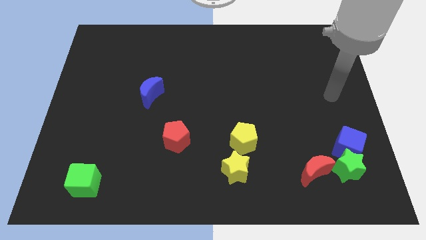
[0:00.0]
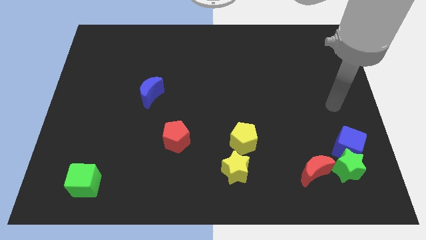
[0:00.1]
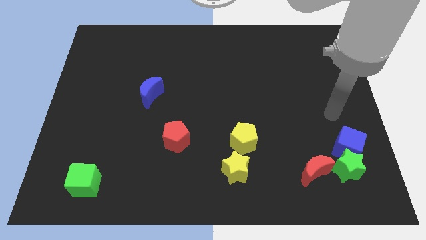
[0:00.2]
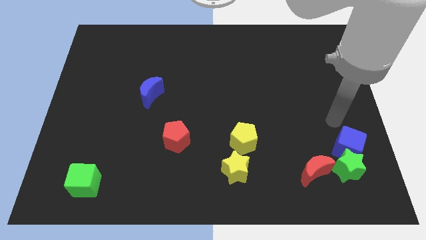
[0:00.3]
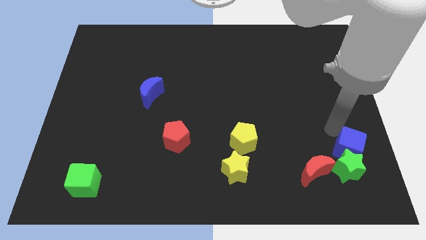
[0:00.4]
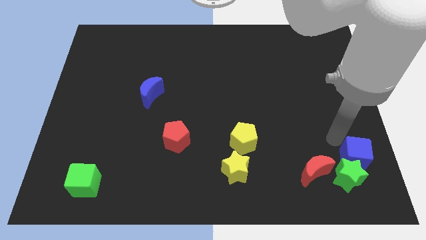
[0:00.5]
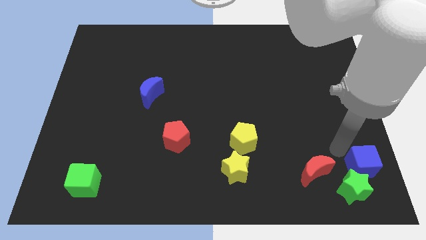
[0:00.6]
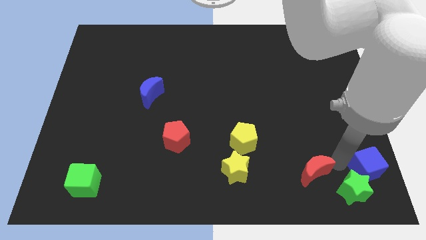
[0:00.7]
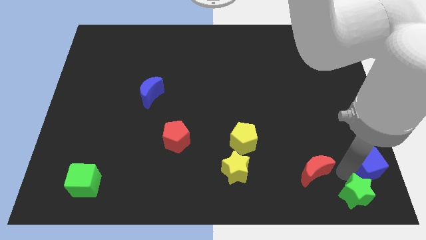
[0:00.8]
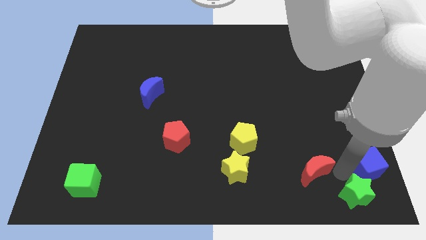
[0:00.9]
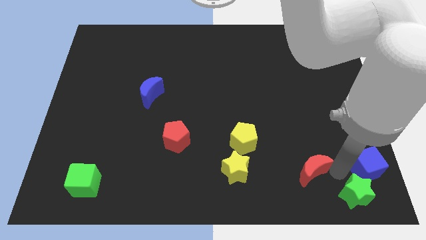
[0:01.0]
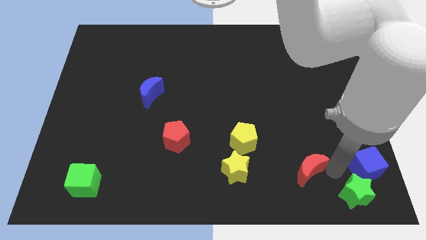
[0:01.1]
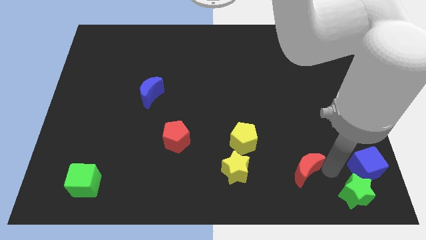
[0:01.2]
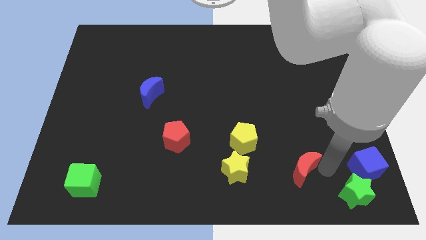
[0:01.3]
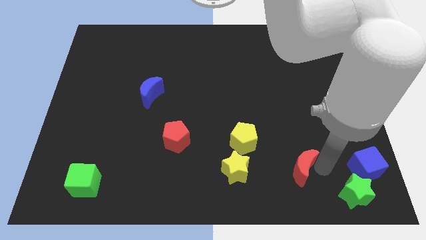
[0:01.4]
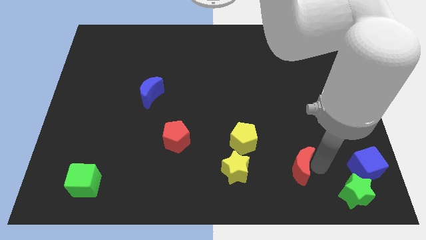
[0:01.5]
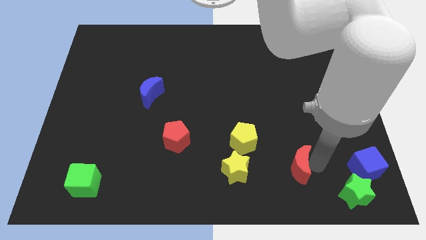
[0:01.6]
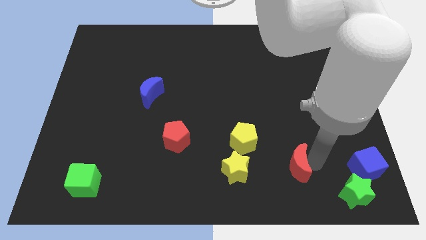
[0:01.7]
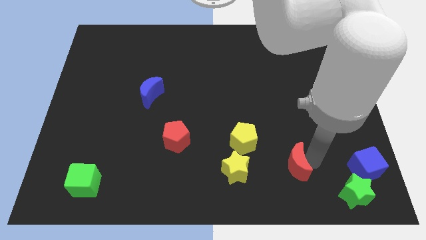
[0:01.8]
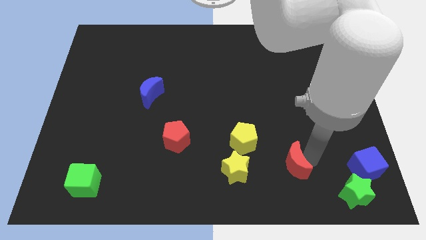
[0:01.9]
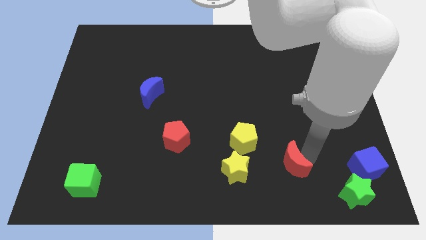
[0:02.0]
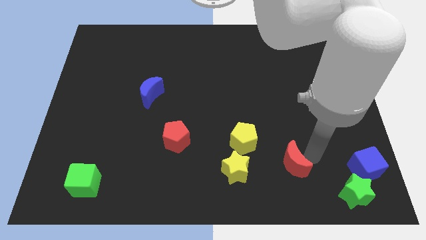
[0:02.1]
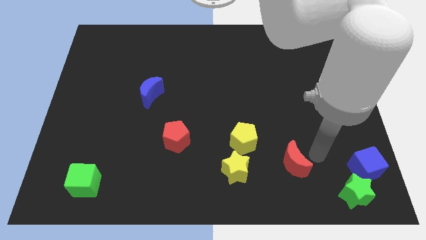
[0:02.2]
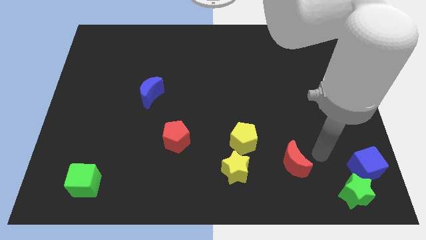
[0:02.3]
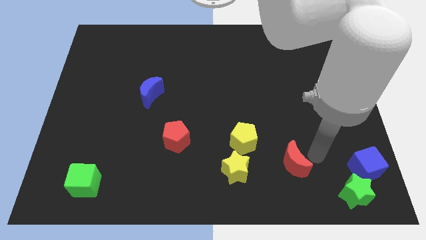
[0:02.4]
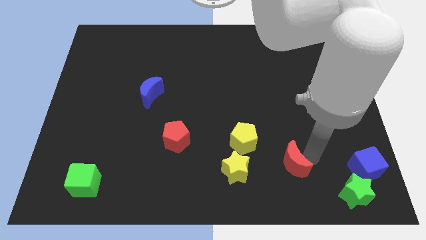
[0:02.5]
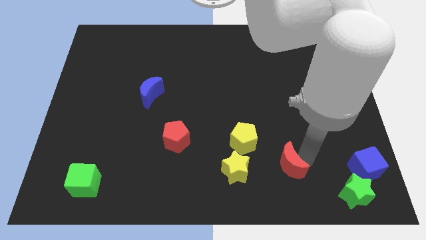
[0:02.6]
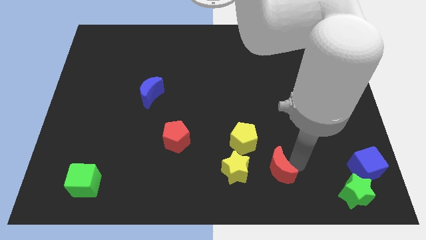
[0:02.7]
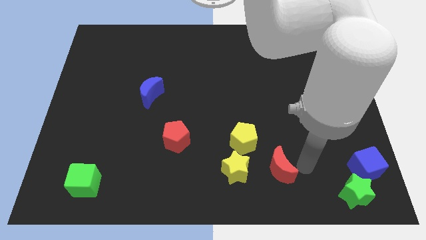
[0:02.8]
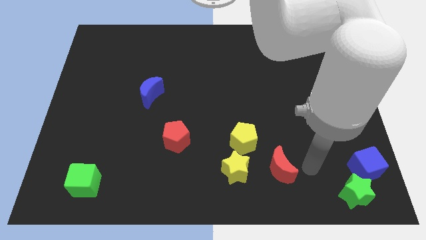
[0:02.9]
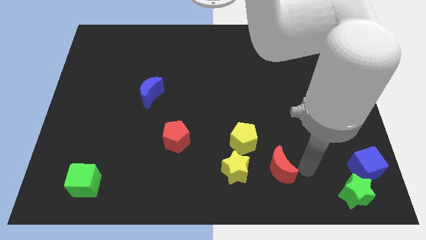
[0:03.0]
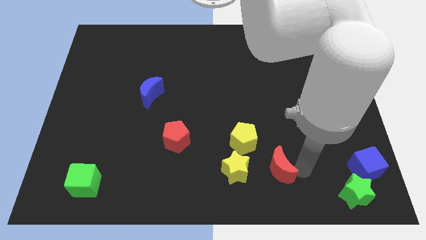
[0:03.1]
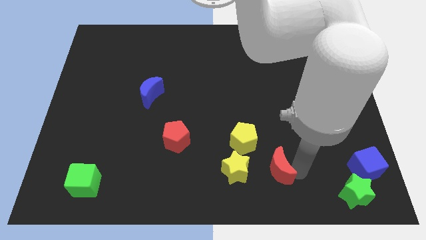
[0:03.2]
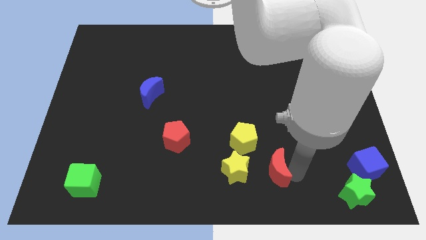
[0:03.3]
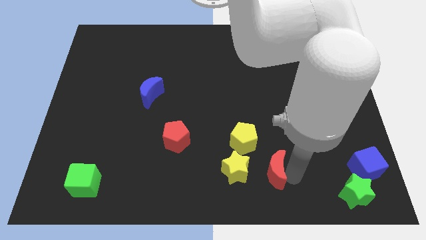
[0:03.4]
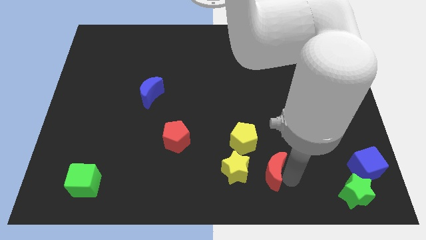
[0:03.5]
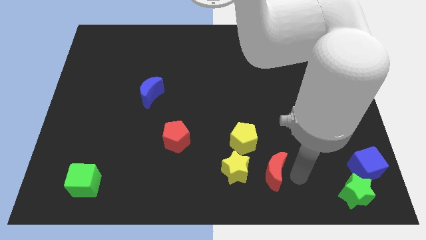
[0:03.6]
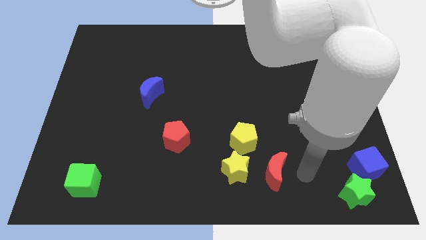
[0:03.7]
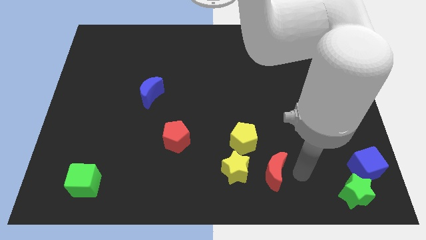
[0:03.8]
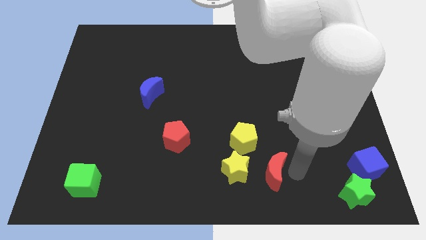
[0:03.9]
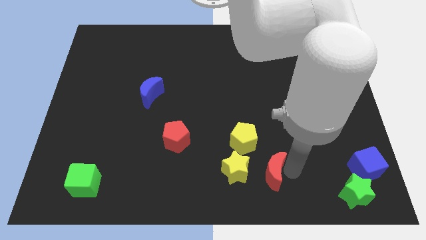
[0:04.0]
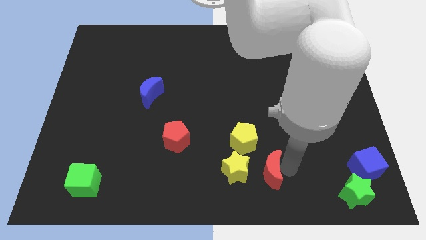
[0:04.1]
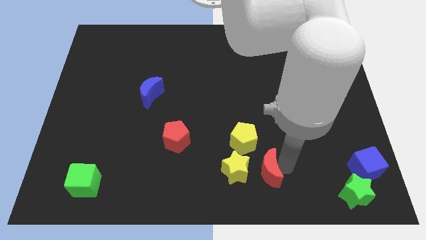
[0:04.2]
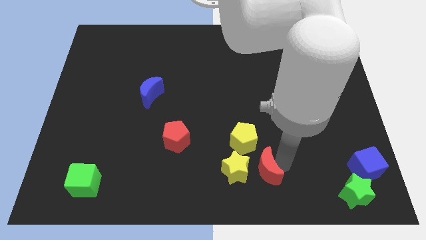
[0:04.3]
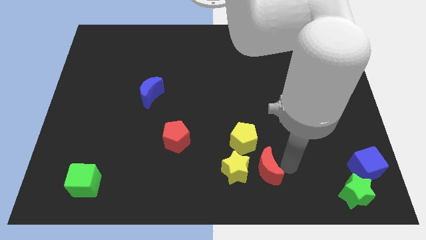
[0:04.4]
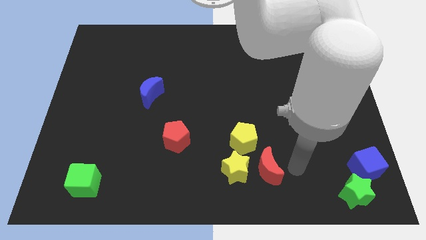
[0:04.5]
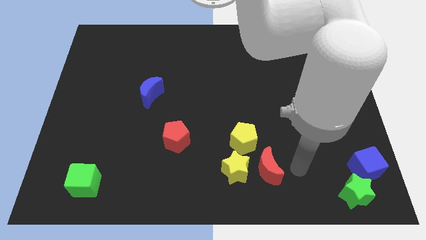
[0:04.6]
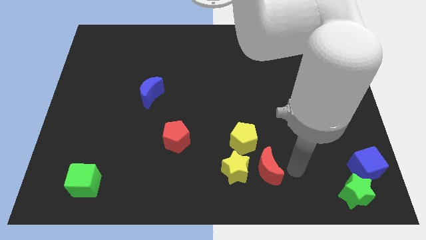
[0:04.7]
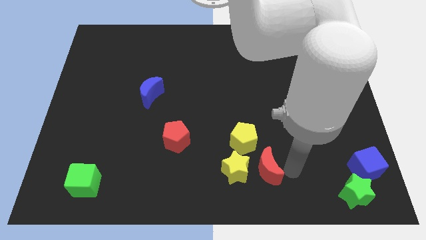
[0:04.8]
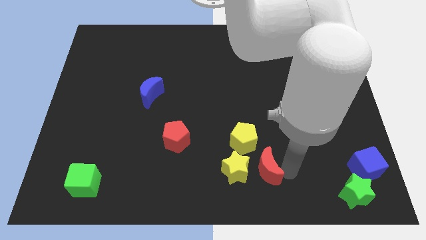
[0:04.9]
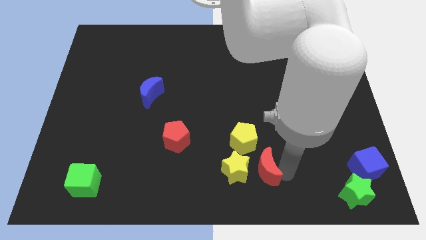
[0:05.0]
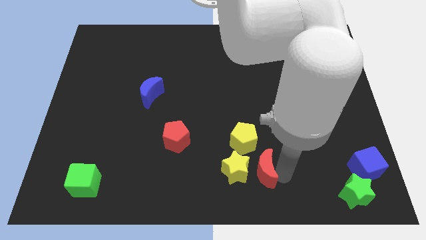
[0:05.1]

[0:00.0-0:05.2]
slide the red moon towards the yellow star

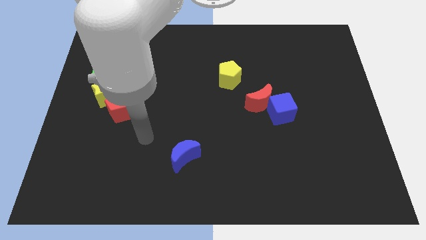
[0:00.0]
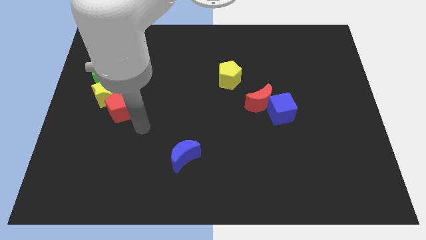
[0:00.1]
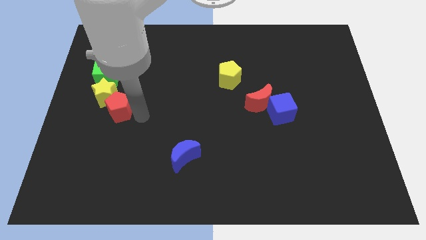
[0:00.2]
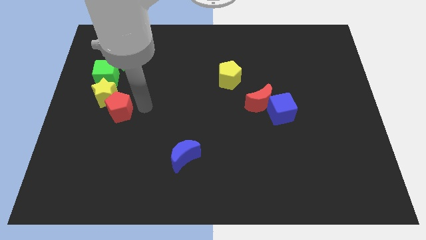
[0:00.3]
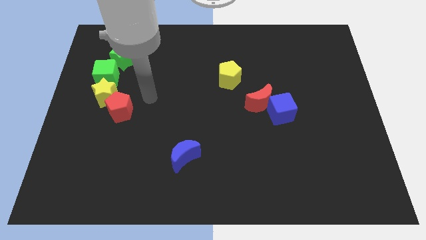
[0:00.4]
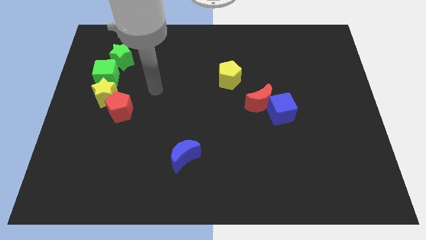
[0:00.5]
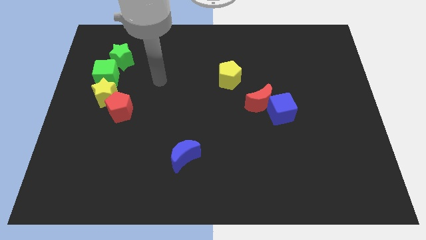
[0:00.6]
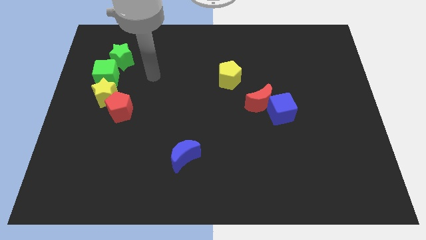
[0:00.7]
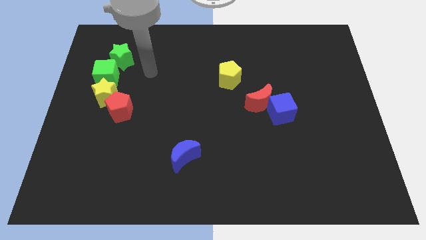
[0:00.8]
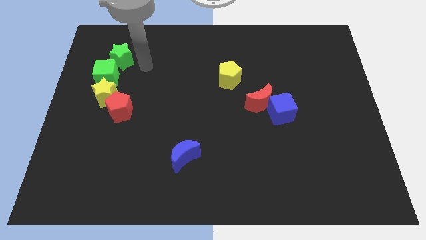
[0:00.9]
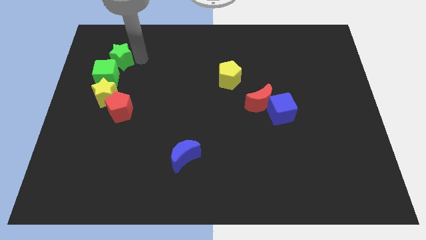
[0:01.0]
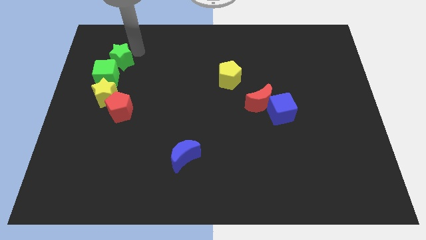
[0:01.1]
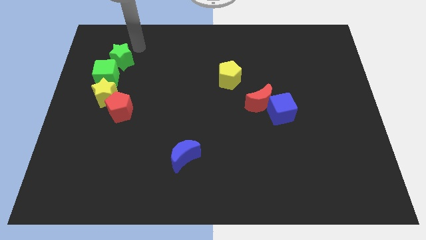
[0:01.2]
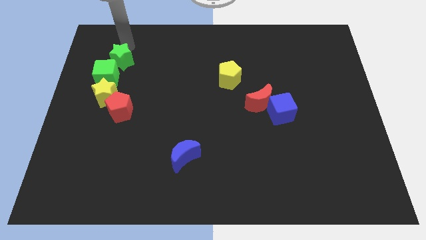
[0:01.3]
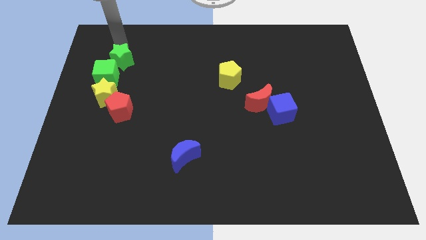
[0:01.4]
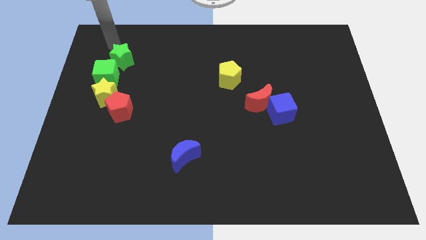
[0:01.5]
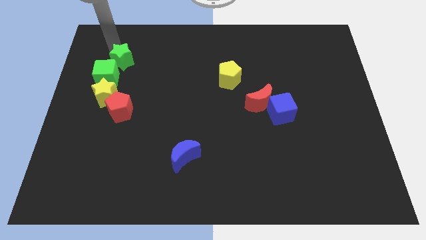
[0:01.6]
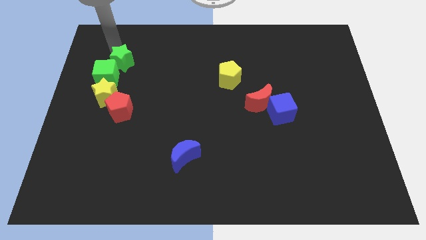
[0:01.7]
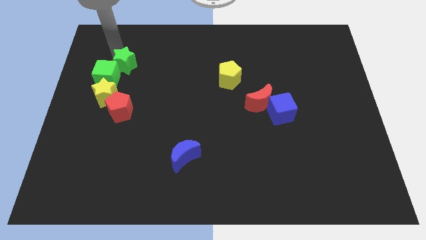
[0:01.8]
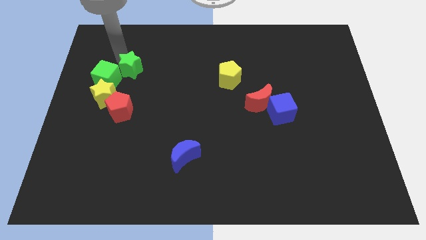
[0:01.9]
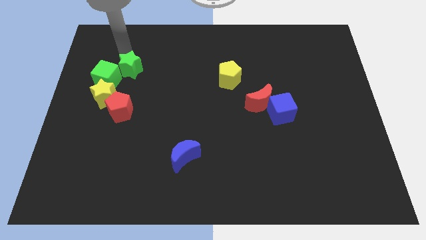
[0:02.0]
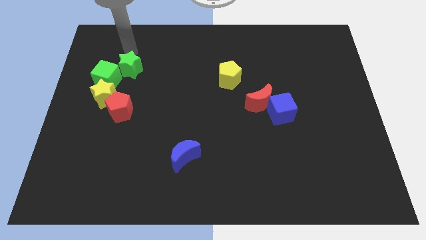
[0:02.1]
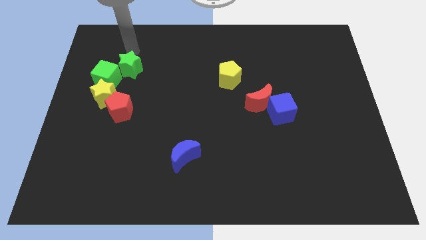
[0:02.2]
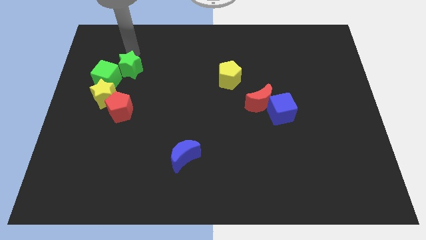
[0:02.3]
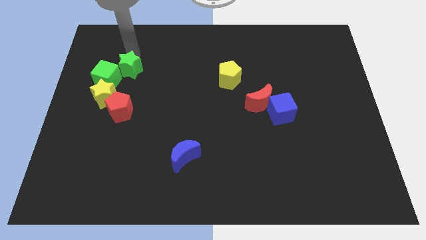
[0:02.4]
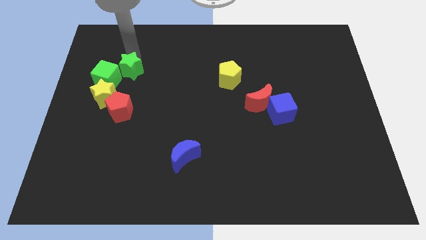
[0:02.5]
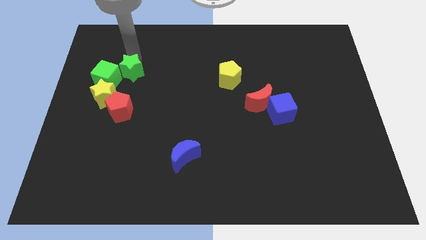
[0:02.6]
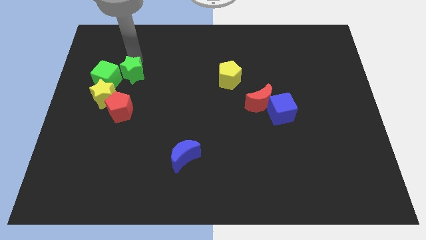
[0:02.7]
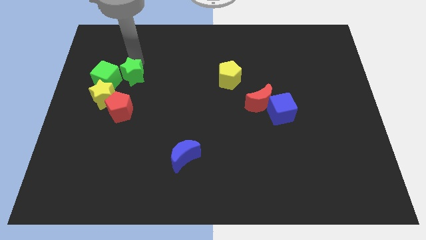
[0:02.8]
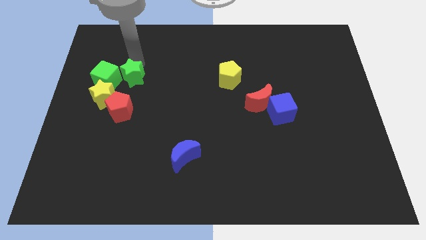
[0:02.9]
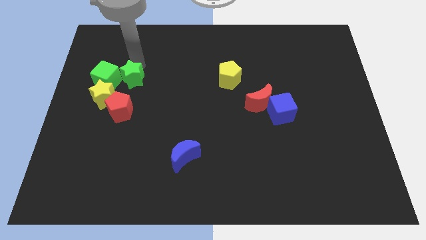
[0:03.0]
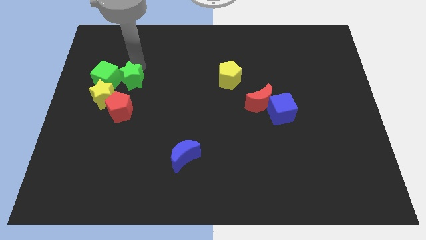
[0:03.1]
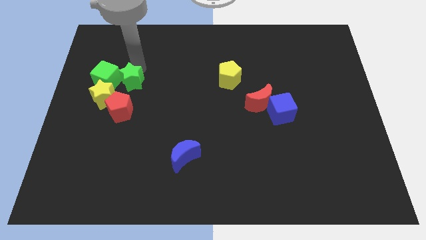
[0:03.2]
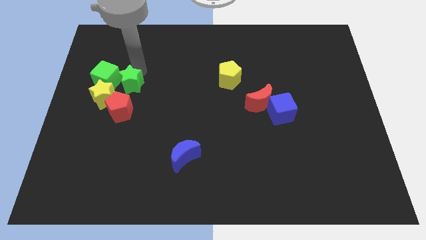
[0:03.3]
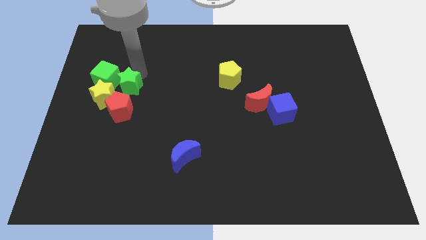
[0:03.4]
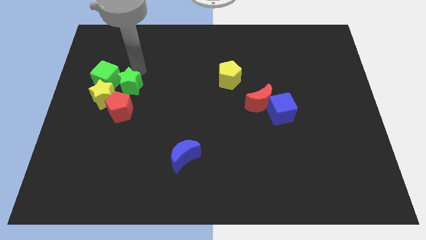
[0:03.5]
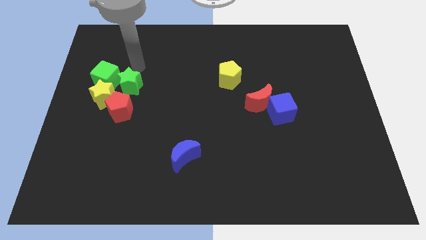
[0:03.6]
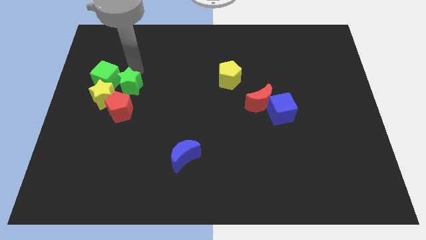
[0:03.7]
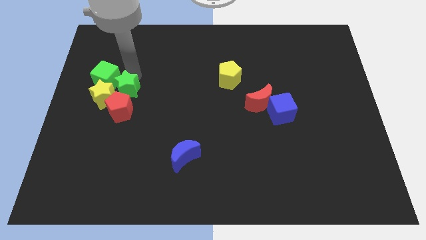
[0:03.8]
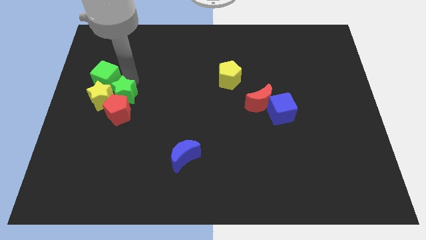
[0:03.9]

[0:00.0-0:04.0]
slide the green star close to the red pentagon
